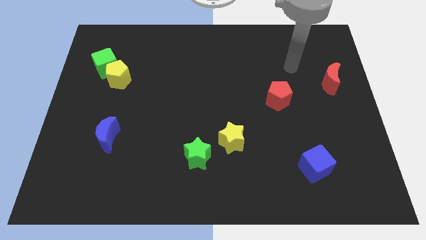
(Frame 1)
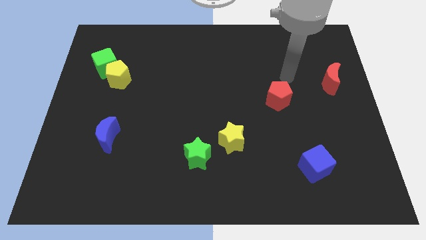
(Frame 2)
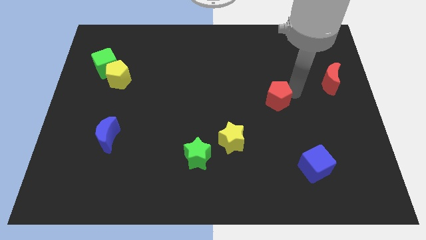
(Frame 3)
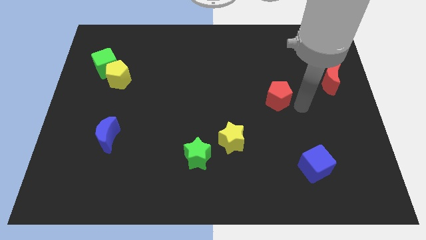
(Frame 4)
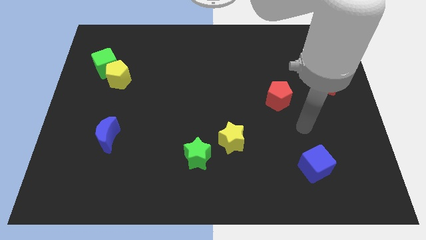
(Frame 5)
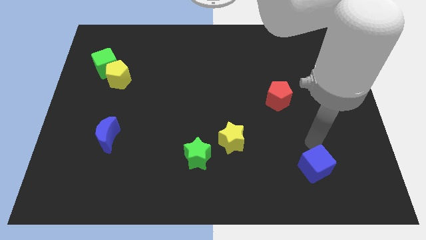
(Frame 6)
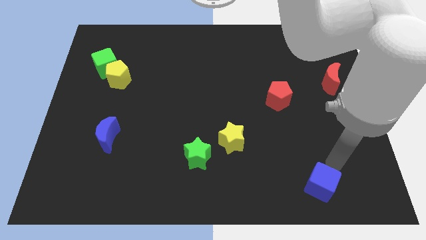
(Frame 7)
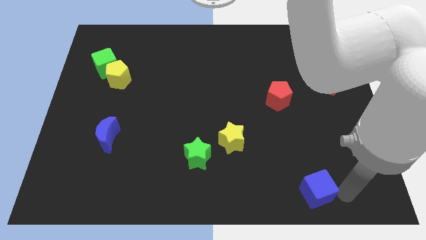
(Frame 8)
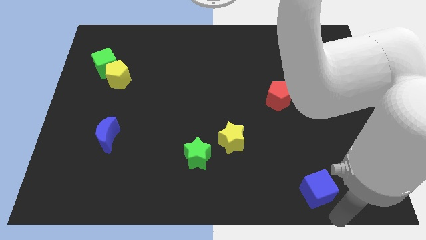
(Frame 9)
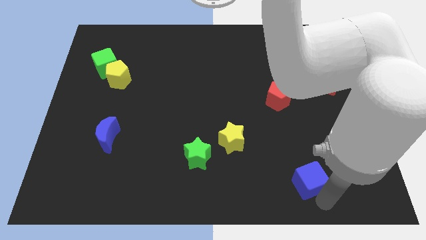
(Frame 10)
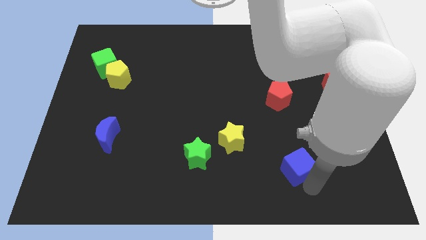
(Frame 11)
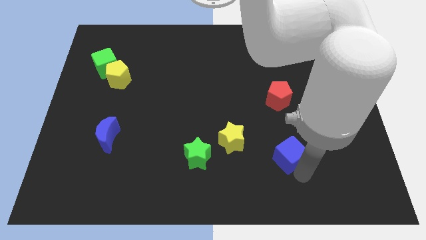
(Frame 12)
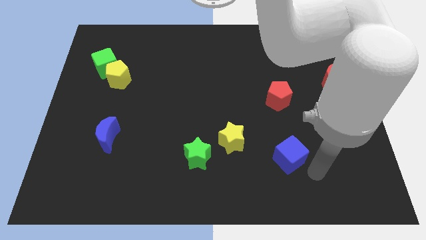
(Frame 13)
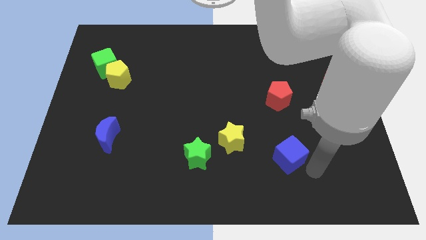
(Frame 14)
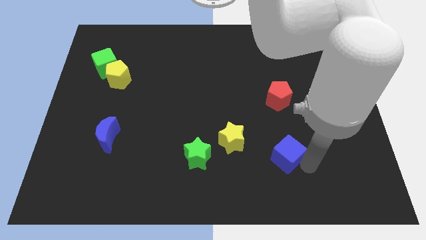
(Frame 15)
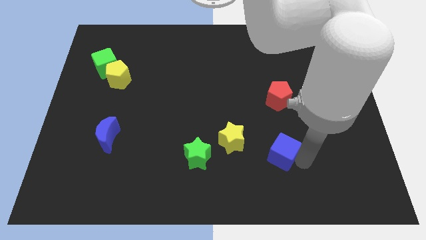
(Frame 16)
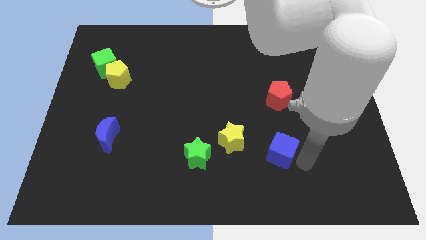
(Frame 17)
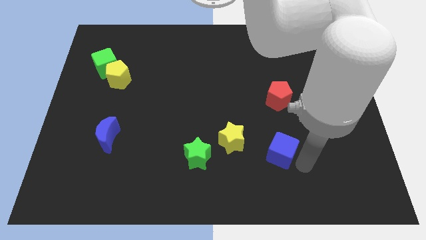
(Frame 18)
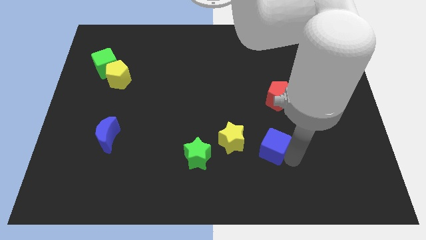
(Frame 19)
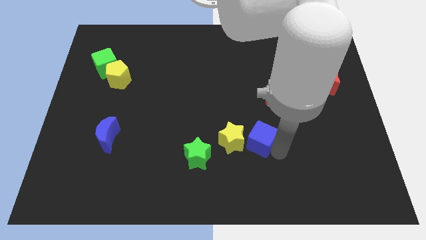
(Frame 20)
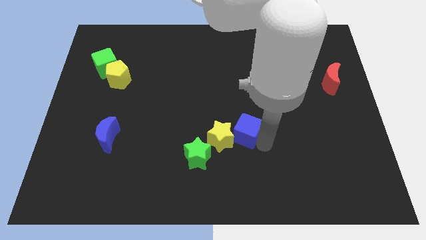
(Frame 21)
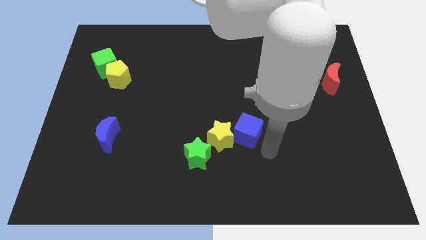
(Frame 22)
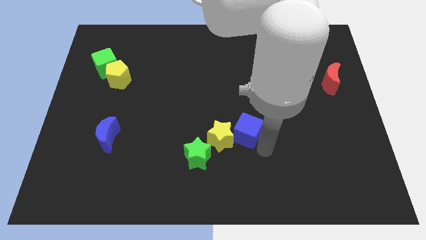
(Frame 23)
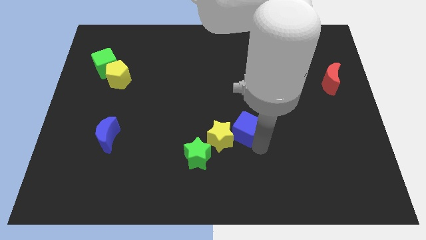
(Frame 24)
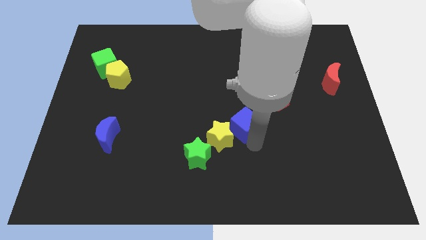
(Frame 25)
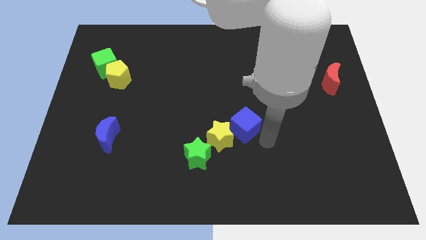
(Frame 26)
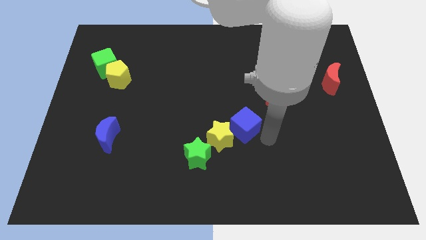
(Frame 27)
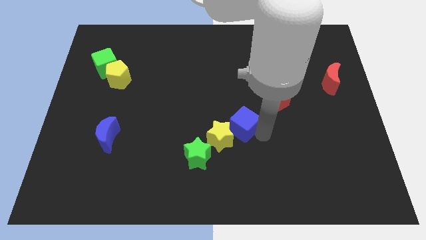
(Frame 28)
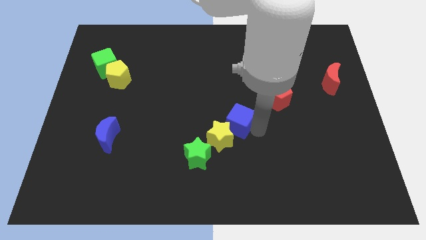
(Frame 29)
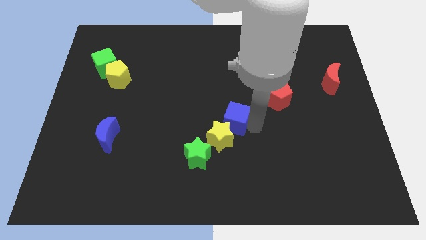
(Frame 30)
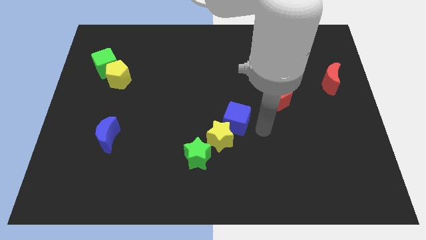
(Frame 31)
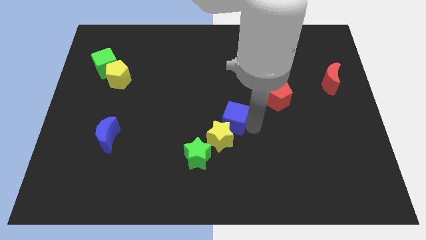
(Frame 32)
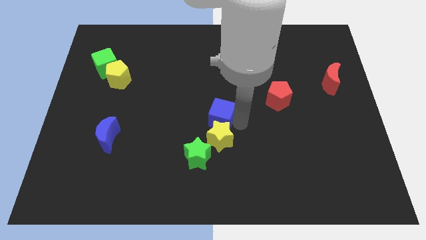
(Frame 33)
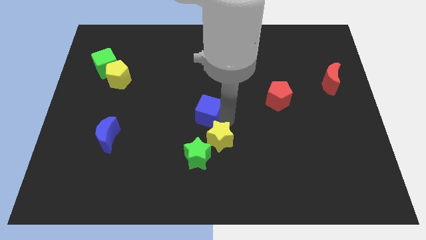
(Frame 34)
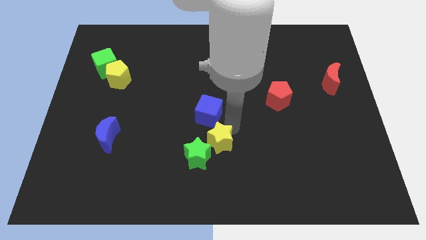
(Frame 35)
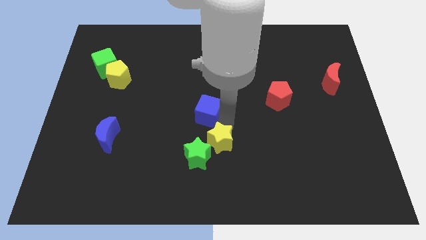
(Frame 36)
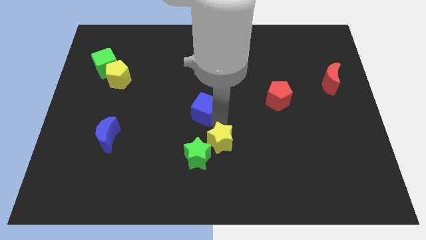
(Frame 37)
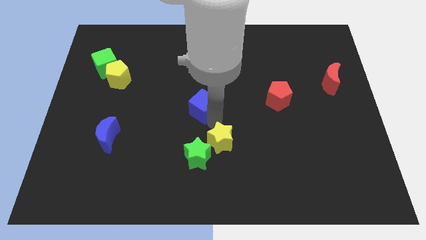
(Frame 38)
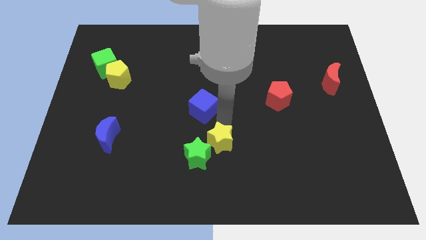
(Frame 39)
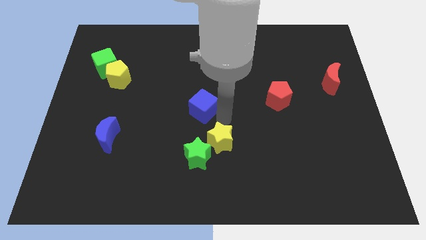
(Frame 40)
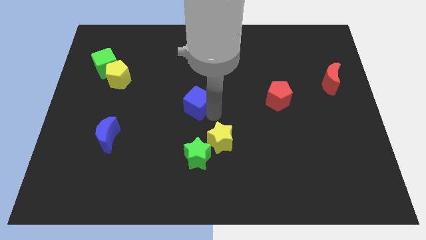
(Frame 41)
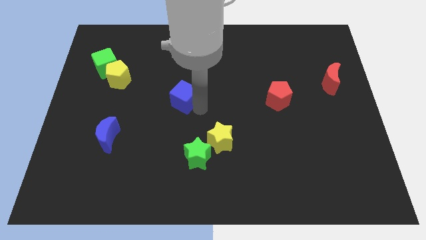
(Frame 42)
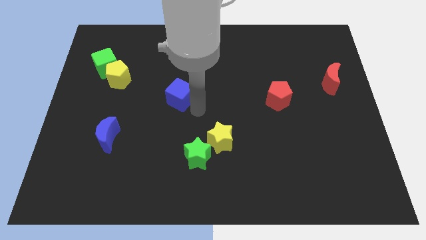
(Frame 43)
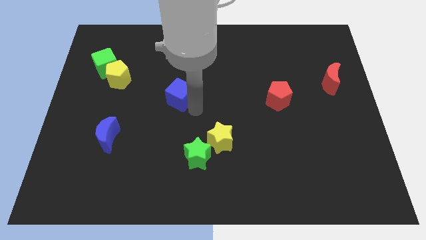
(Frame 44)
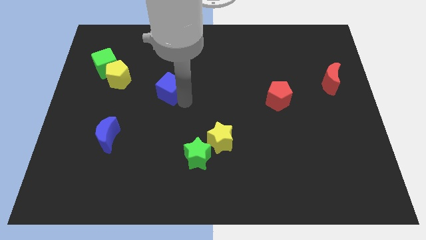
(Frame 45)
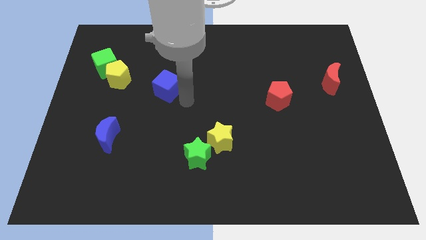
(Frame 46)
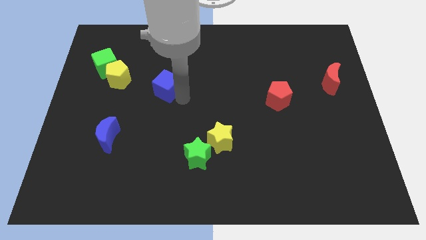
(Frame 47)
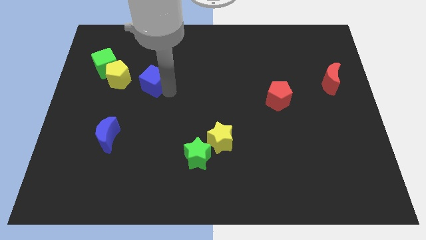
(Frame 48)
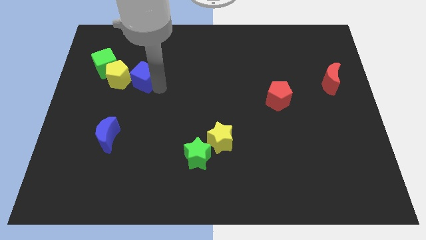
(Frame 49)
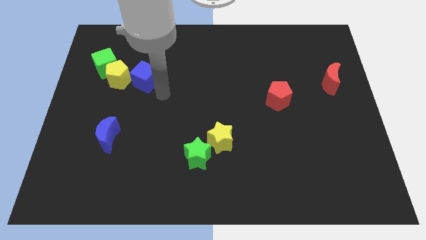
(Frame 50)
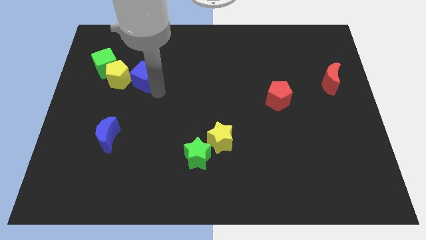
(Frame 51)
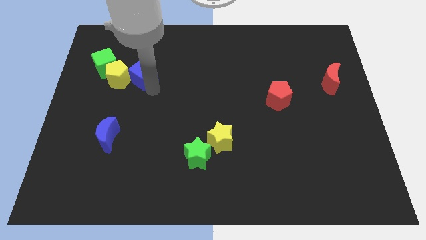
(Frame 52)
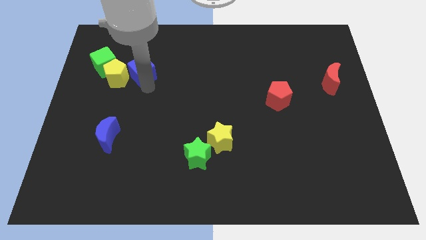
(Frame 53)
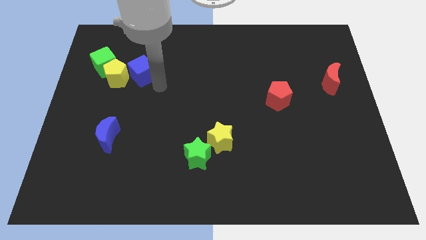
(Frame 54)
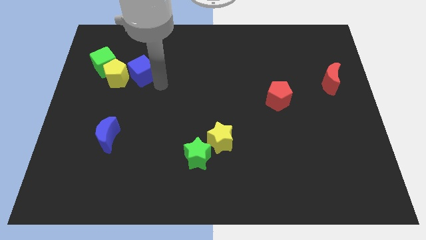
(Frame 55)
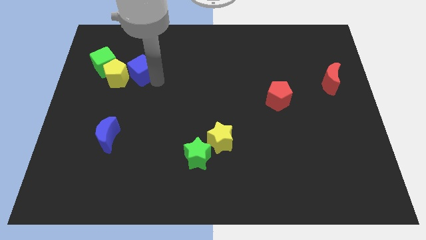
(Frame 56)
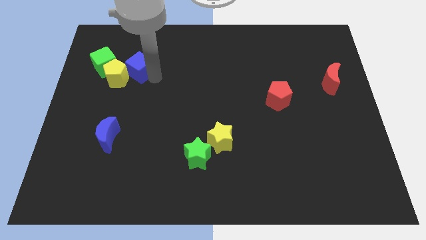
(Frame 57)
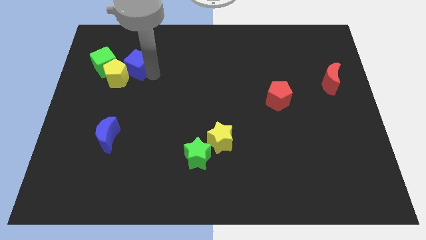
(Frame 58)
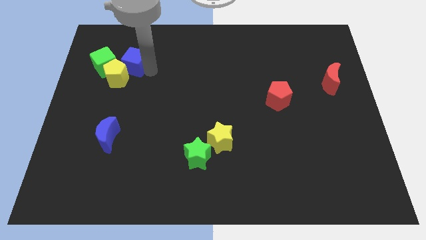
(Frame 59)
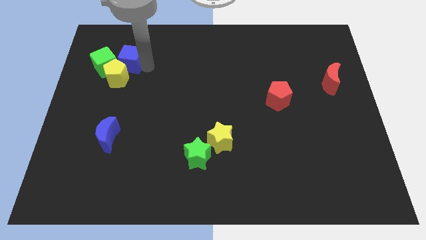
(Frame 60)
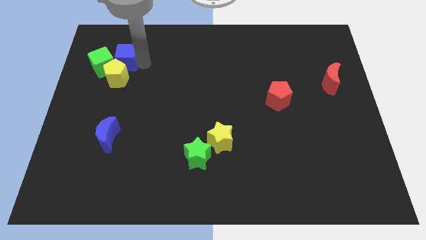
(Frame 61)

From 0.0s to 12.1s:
put the blue cube to the green cube

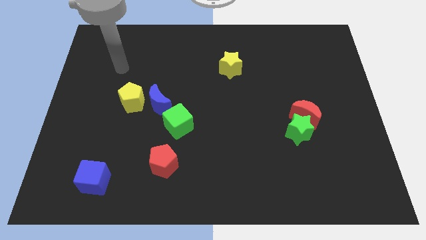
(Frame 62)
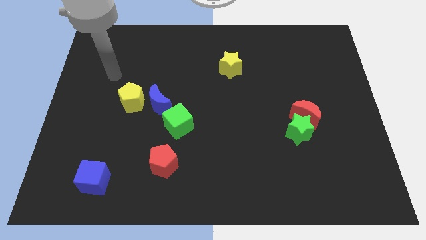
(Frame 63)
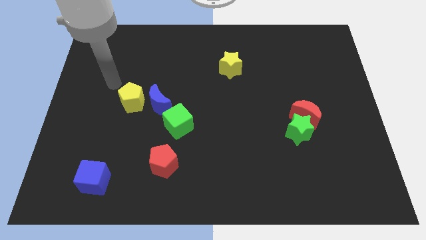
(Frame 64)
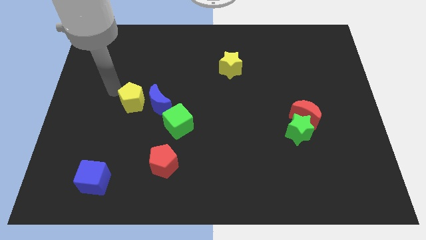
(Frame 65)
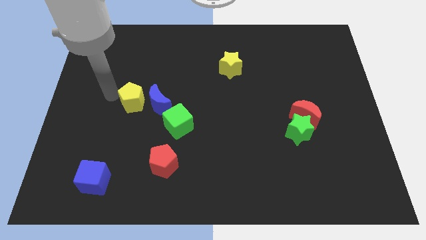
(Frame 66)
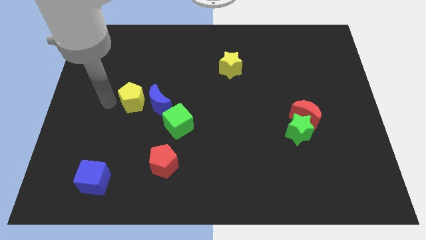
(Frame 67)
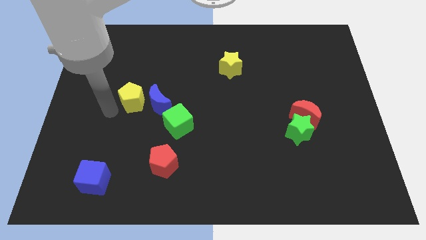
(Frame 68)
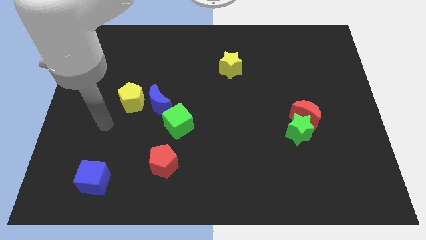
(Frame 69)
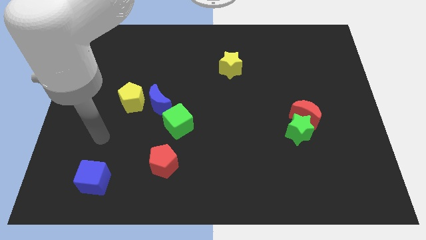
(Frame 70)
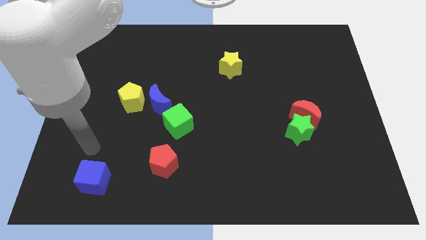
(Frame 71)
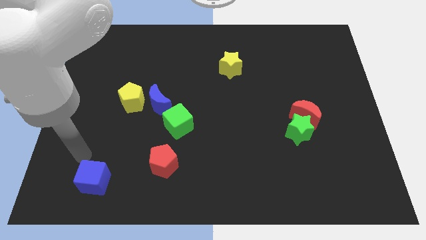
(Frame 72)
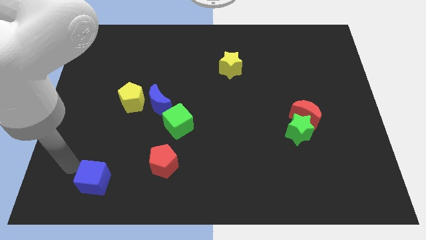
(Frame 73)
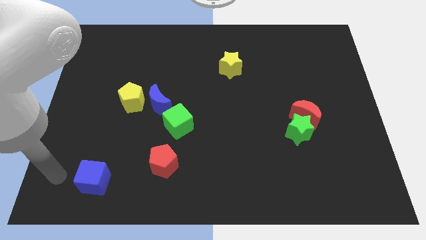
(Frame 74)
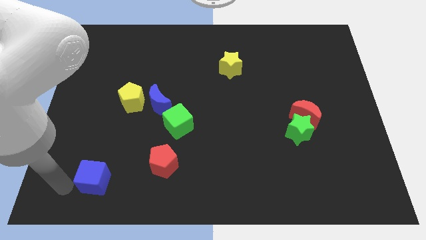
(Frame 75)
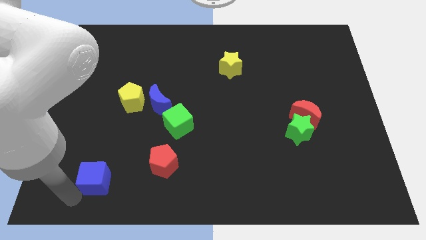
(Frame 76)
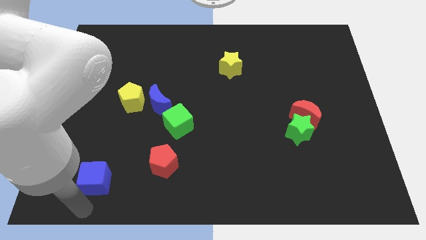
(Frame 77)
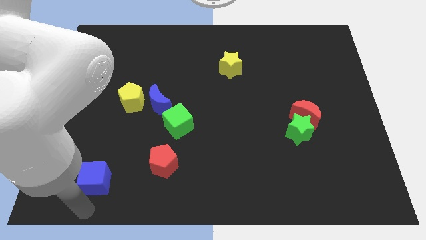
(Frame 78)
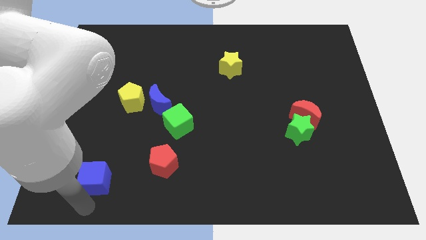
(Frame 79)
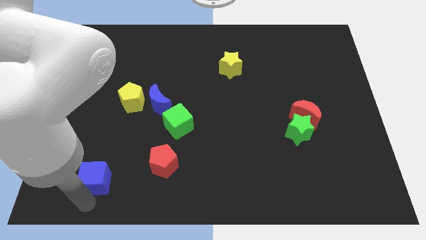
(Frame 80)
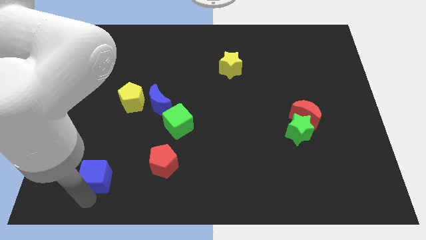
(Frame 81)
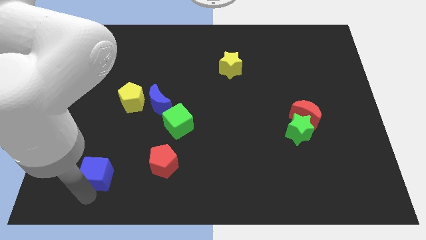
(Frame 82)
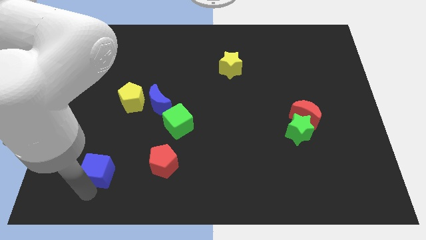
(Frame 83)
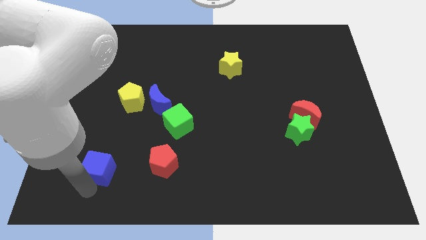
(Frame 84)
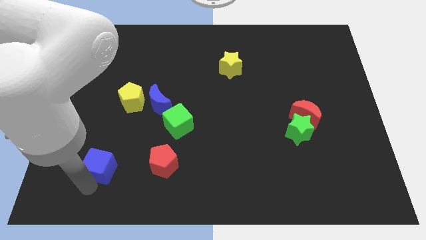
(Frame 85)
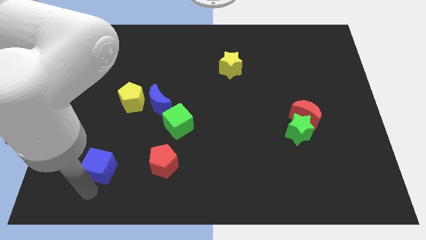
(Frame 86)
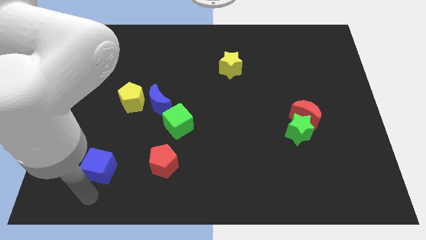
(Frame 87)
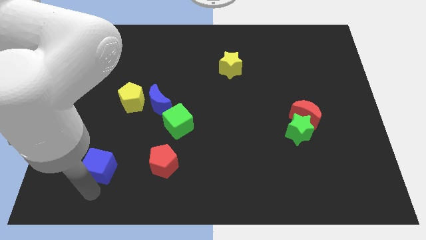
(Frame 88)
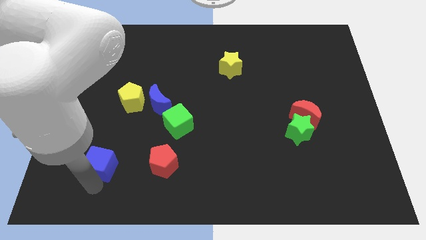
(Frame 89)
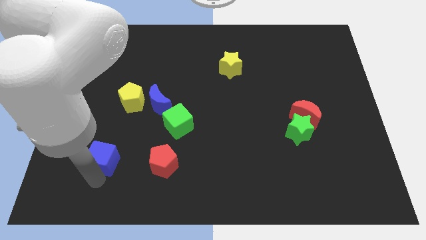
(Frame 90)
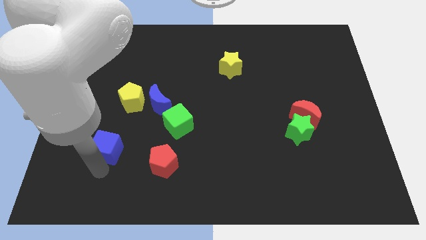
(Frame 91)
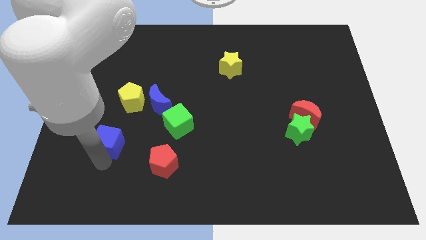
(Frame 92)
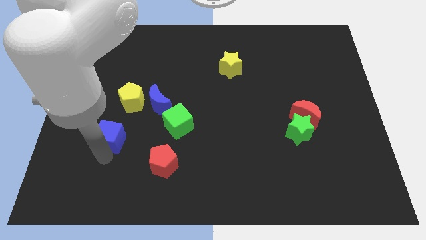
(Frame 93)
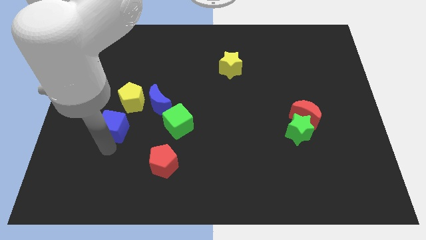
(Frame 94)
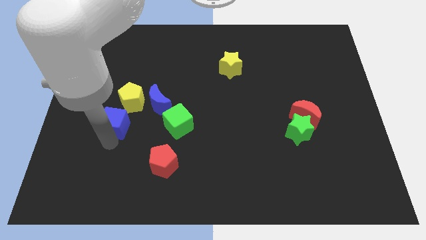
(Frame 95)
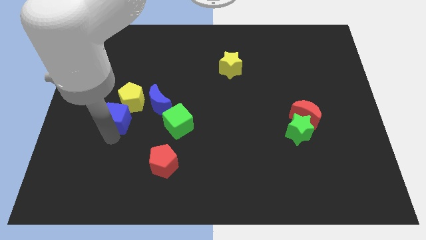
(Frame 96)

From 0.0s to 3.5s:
slide the blue cube next to the yellow pentagon
